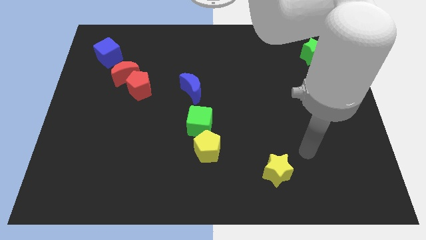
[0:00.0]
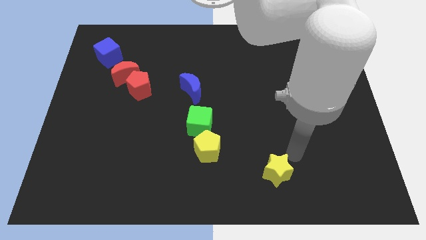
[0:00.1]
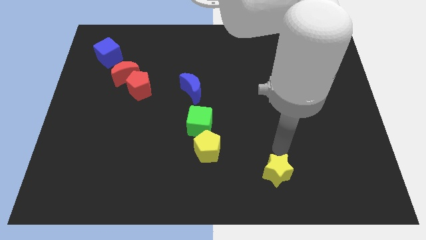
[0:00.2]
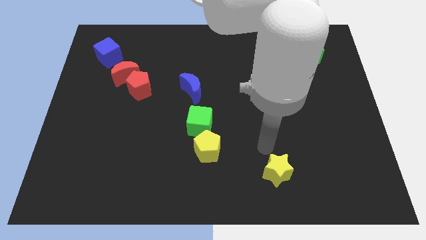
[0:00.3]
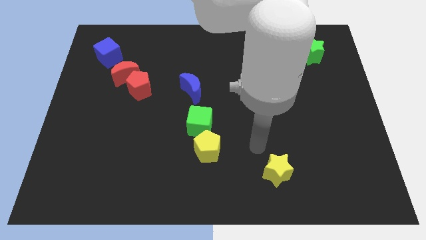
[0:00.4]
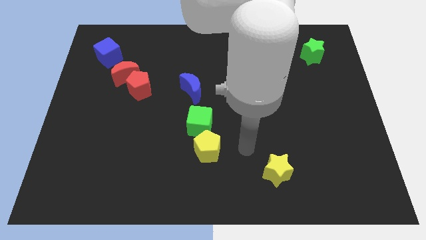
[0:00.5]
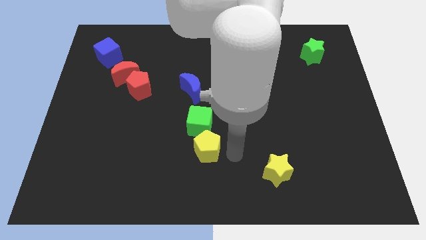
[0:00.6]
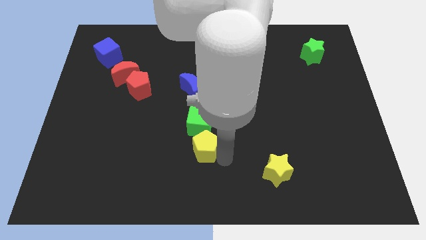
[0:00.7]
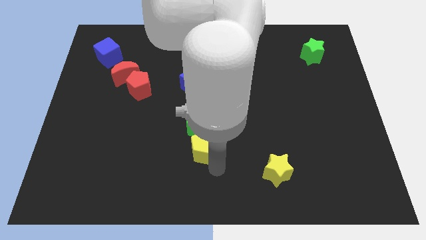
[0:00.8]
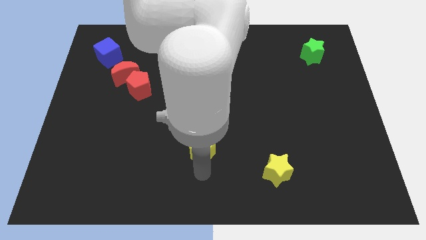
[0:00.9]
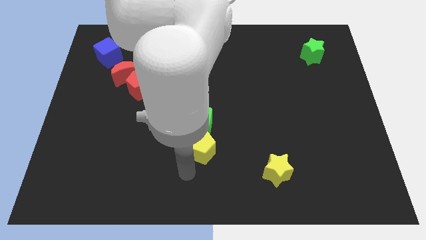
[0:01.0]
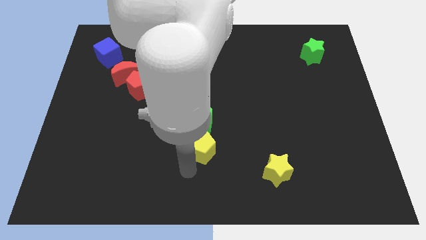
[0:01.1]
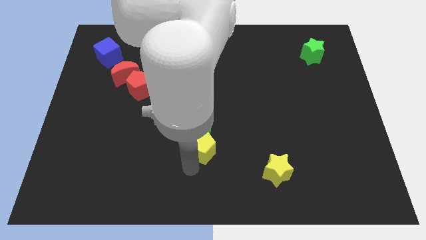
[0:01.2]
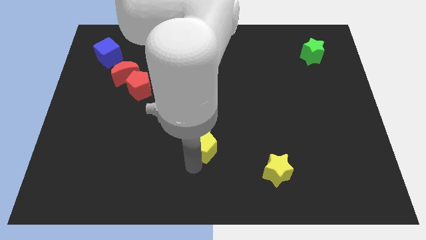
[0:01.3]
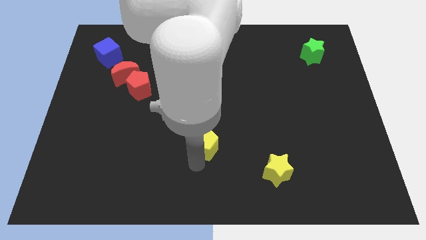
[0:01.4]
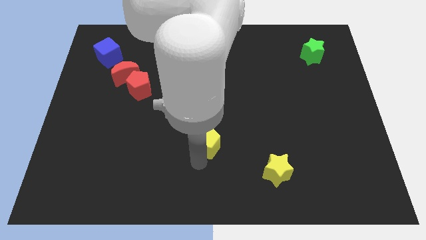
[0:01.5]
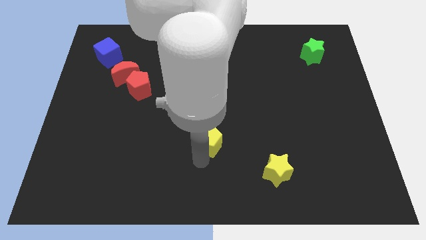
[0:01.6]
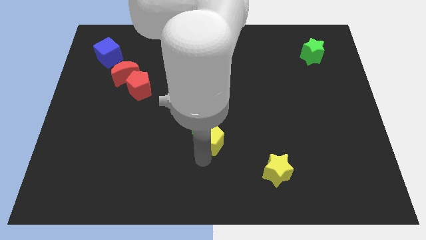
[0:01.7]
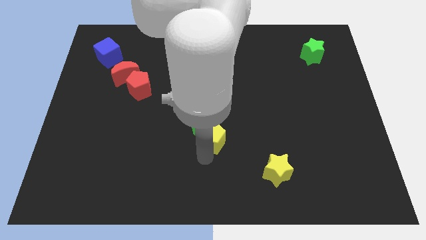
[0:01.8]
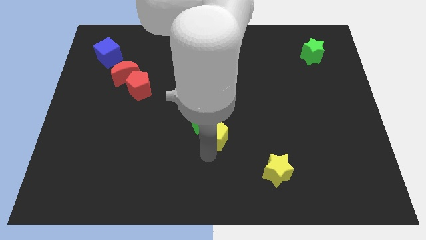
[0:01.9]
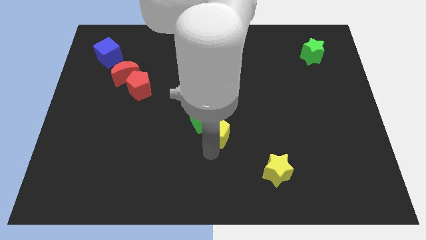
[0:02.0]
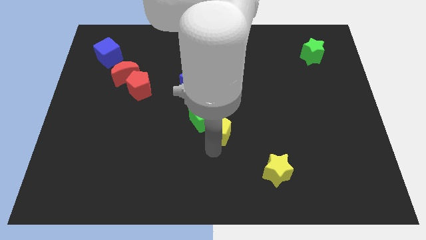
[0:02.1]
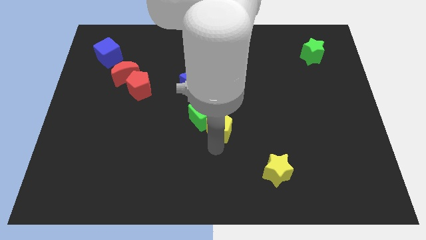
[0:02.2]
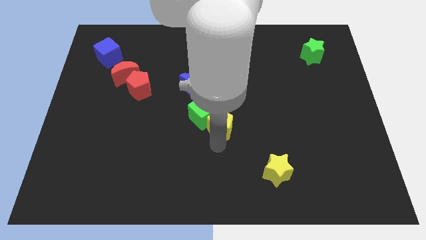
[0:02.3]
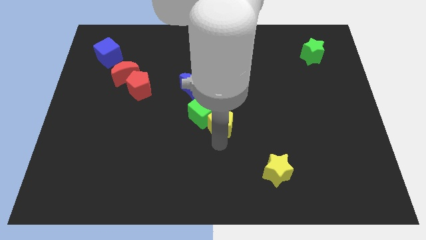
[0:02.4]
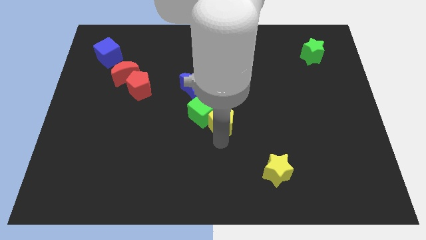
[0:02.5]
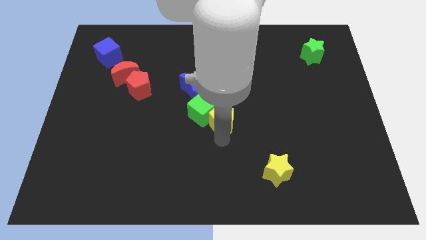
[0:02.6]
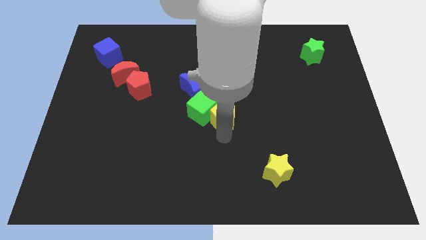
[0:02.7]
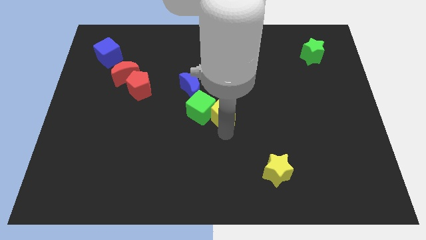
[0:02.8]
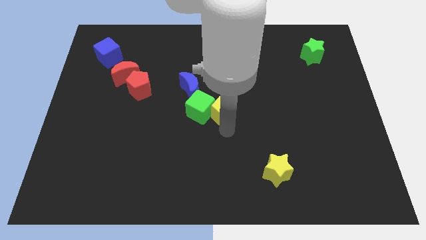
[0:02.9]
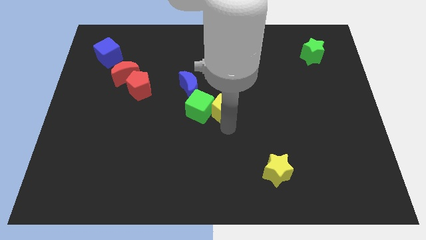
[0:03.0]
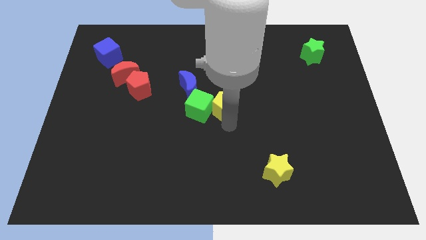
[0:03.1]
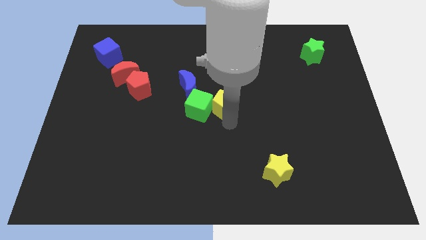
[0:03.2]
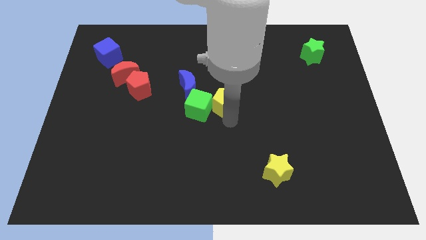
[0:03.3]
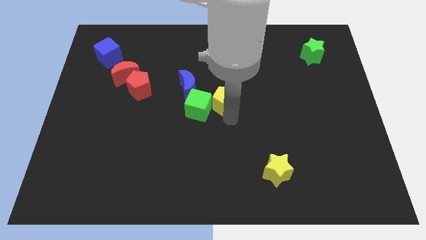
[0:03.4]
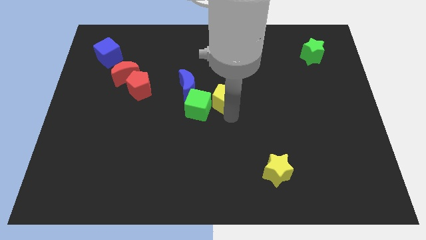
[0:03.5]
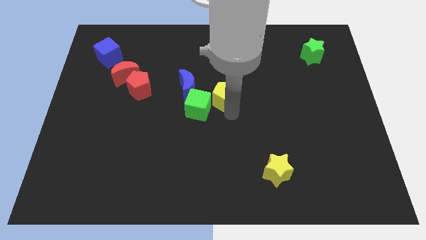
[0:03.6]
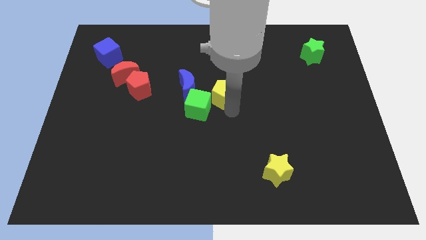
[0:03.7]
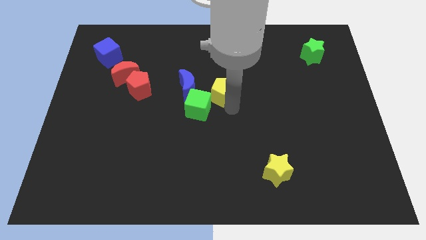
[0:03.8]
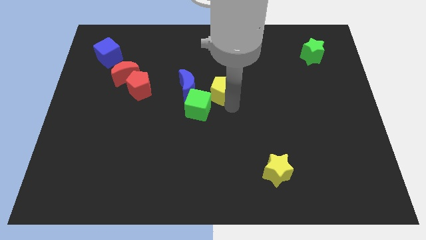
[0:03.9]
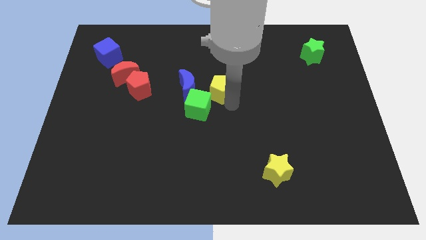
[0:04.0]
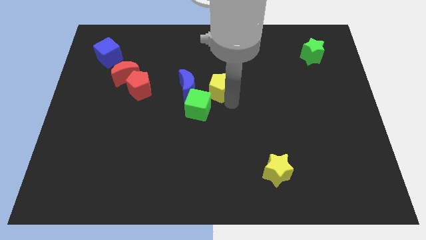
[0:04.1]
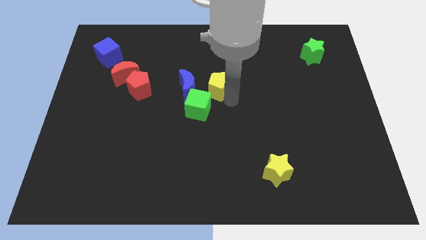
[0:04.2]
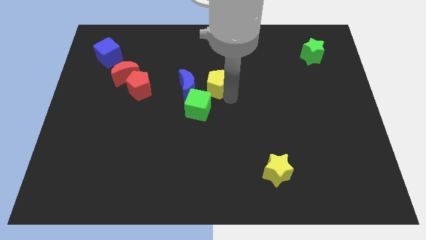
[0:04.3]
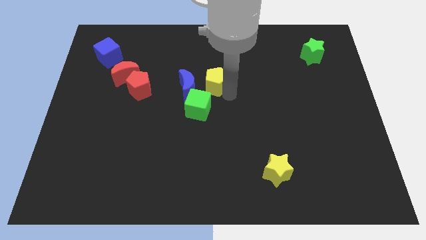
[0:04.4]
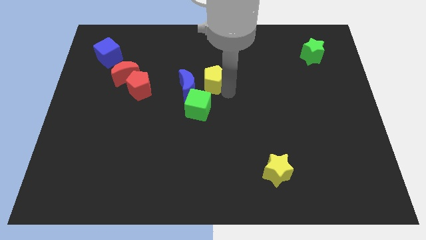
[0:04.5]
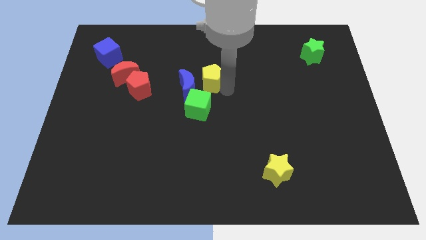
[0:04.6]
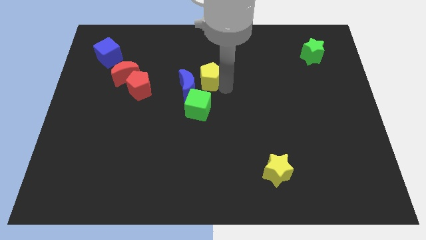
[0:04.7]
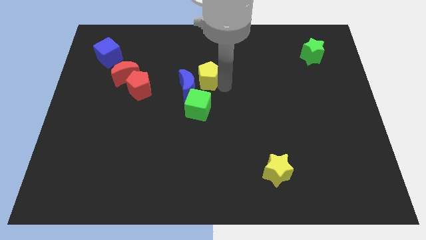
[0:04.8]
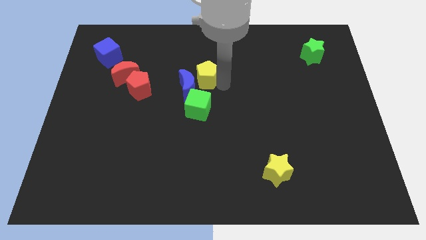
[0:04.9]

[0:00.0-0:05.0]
move the yellow pentagon to the top of the blue moon

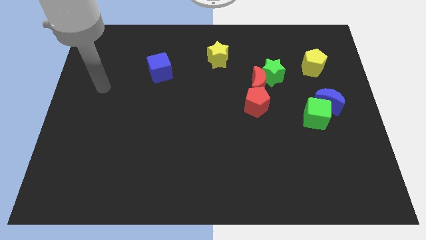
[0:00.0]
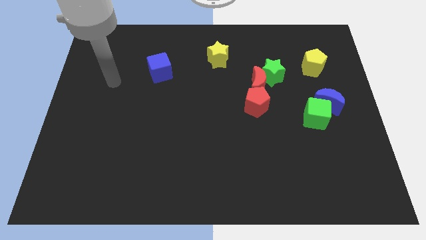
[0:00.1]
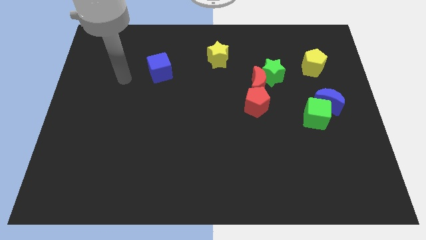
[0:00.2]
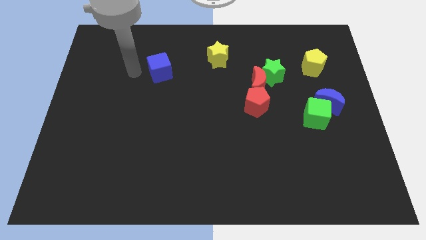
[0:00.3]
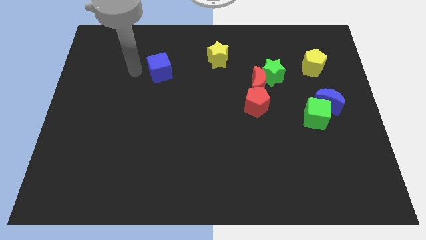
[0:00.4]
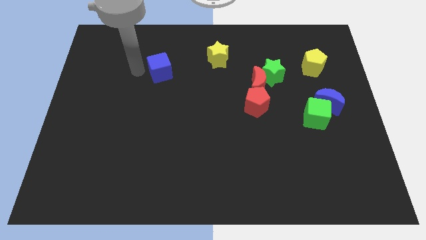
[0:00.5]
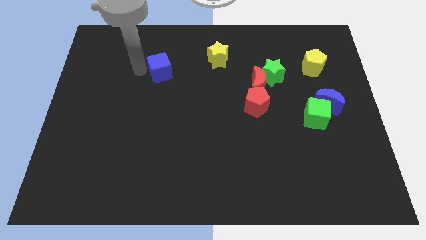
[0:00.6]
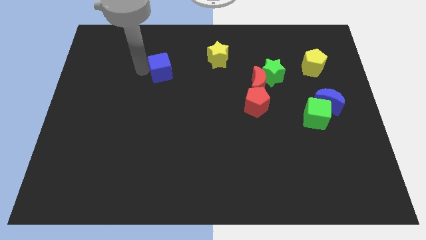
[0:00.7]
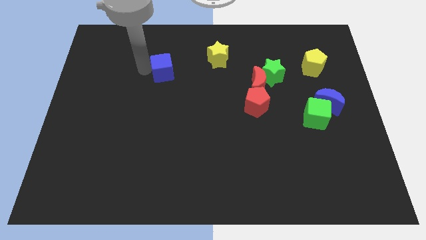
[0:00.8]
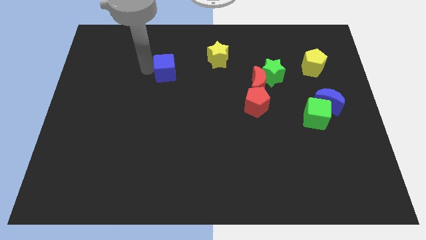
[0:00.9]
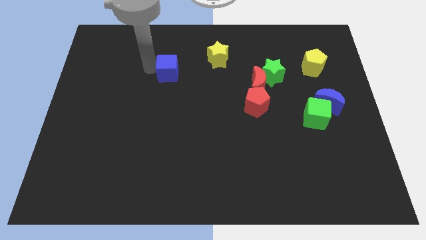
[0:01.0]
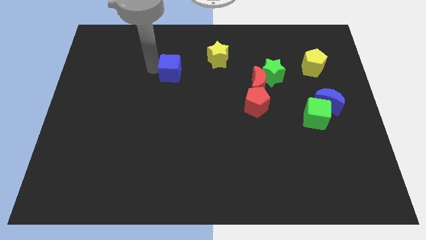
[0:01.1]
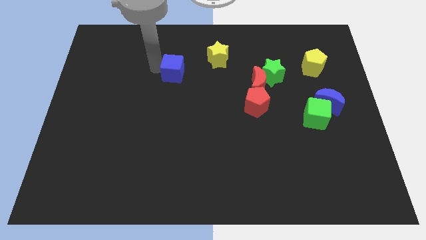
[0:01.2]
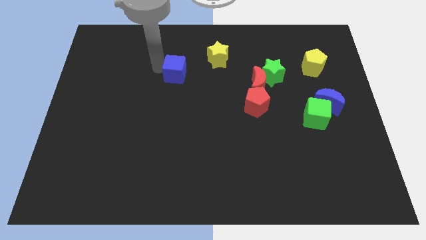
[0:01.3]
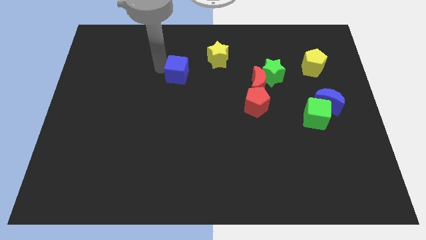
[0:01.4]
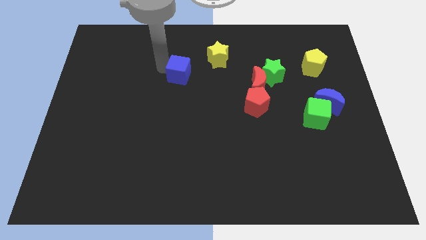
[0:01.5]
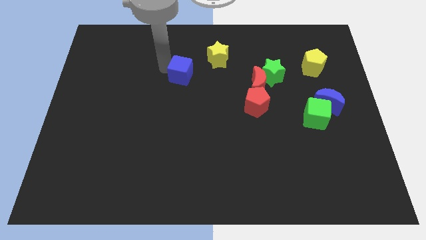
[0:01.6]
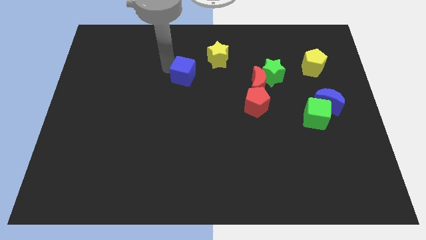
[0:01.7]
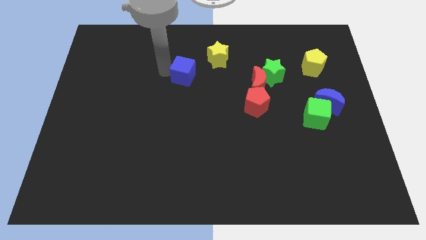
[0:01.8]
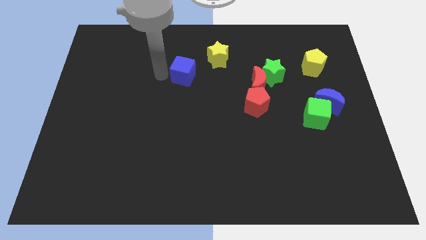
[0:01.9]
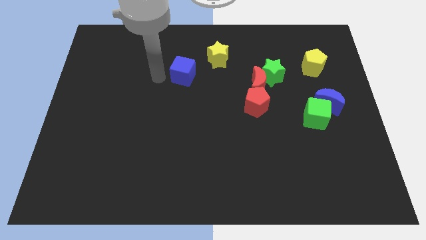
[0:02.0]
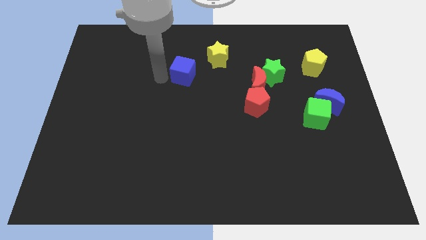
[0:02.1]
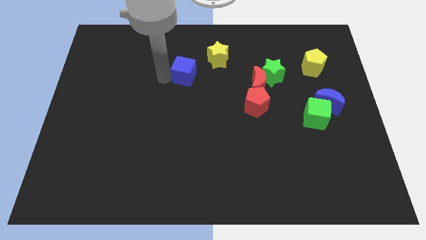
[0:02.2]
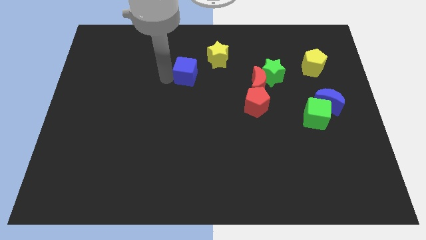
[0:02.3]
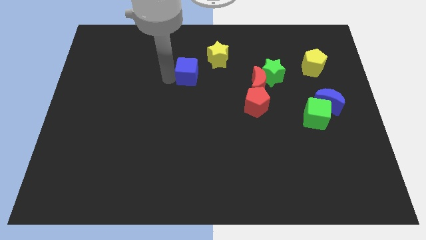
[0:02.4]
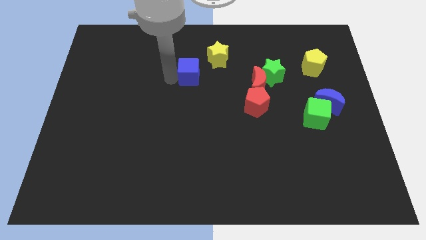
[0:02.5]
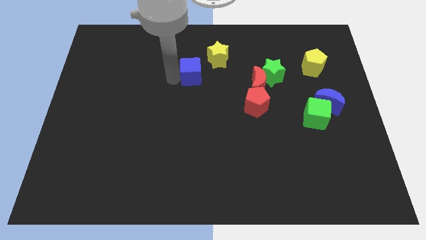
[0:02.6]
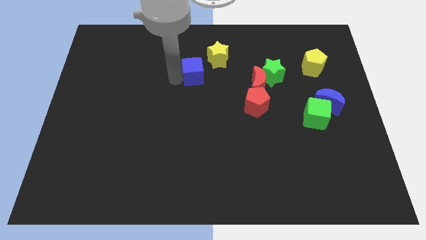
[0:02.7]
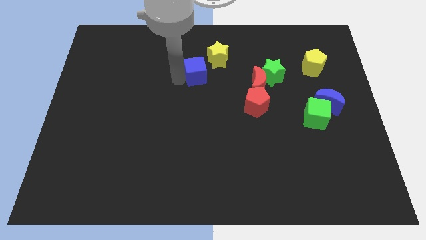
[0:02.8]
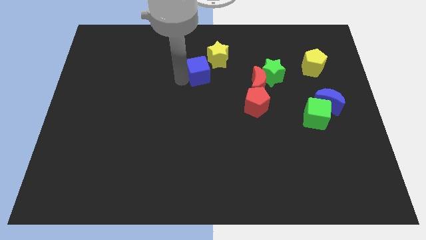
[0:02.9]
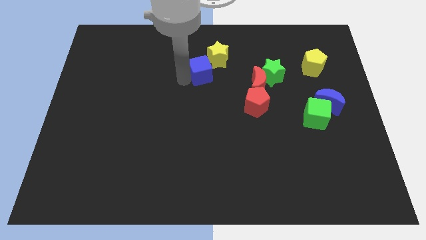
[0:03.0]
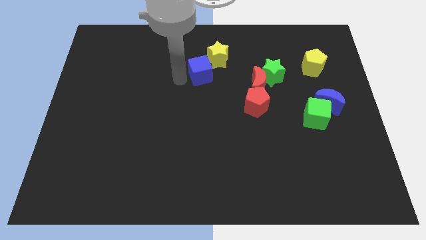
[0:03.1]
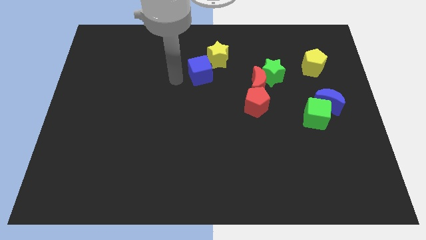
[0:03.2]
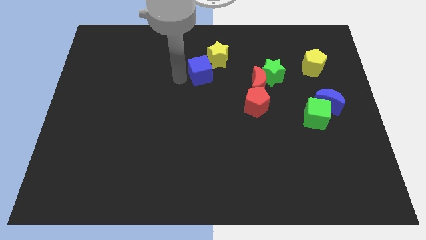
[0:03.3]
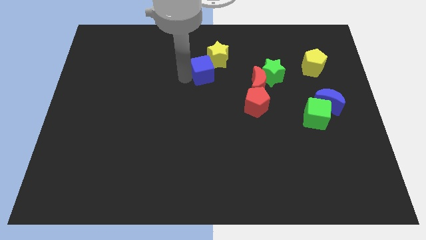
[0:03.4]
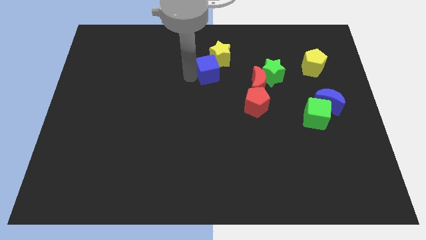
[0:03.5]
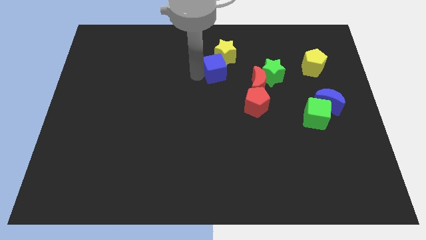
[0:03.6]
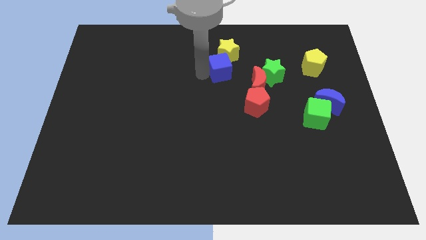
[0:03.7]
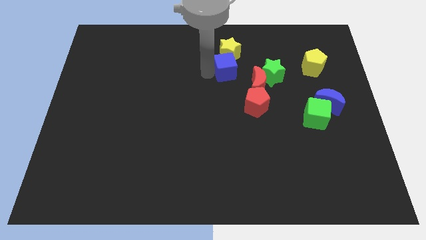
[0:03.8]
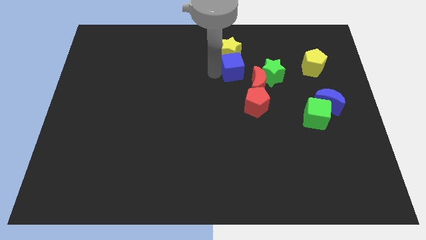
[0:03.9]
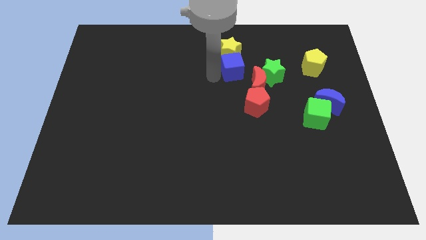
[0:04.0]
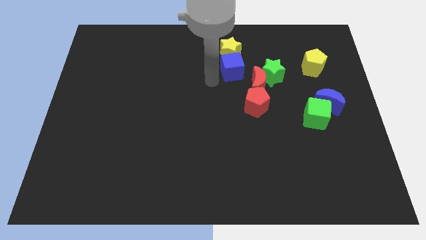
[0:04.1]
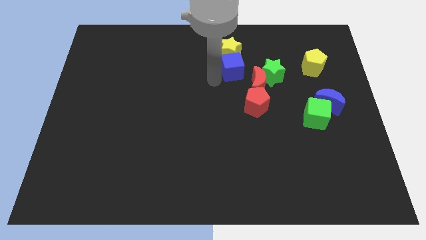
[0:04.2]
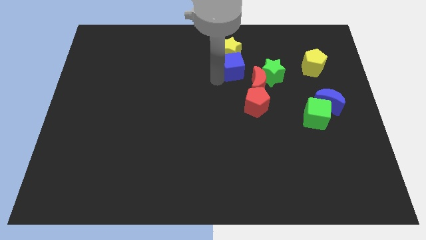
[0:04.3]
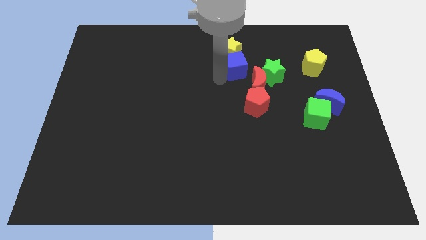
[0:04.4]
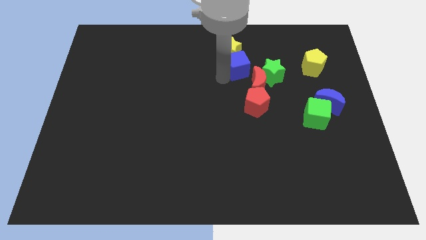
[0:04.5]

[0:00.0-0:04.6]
slide the blue cube to the top left side of the green star
